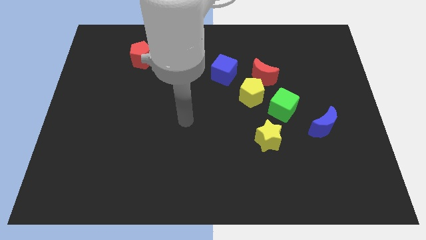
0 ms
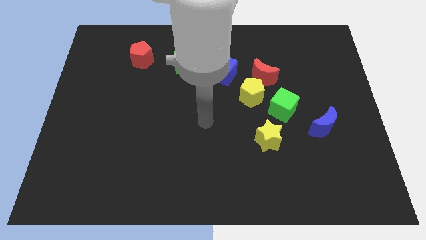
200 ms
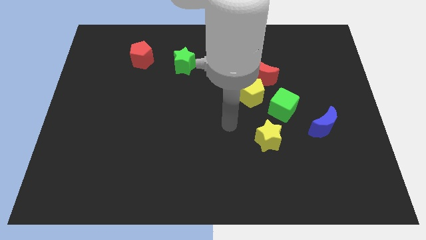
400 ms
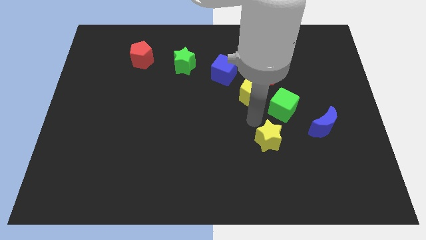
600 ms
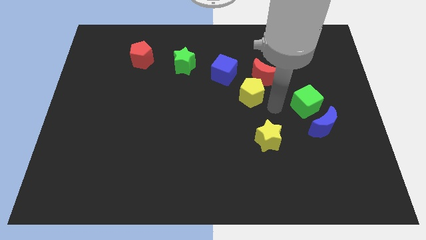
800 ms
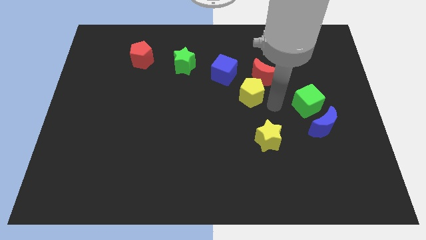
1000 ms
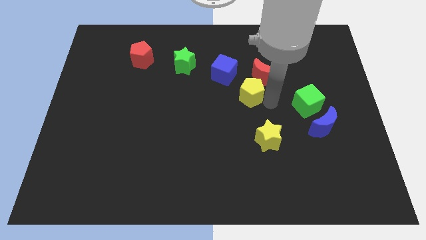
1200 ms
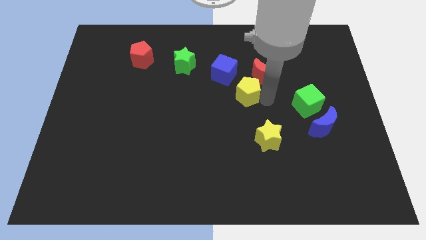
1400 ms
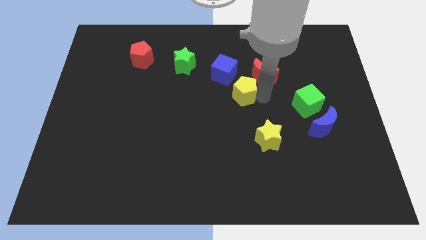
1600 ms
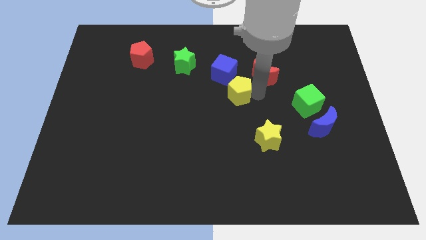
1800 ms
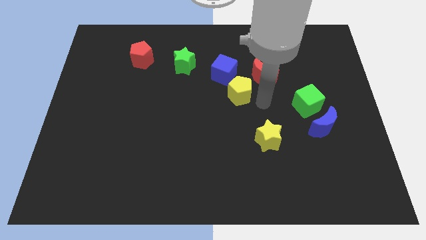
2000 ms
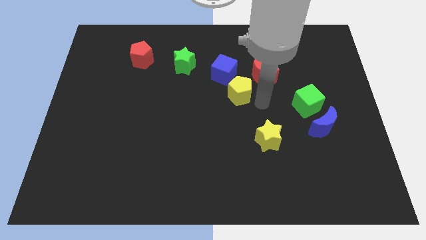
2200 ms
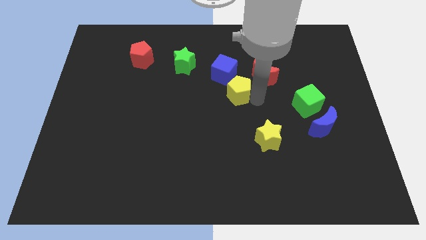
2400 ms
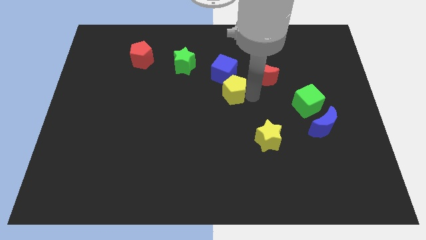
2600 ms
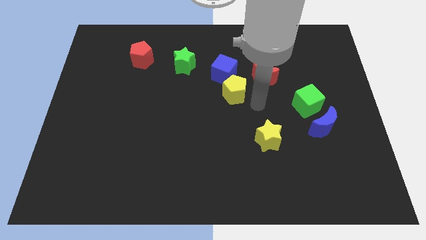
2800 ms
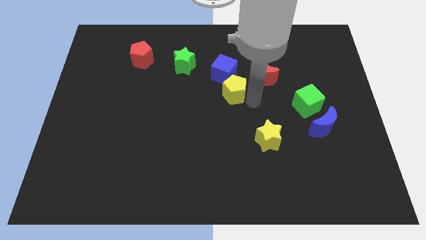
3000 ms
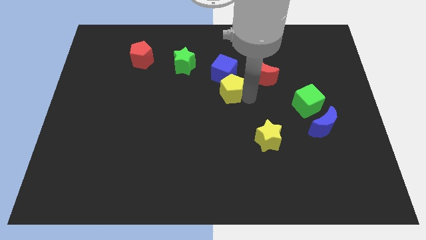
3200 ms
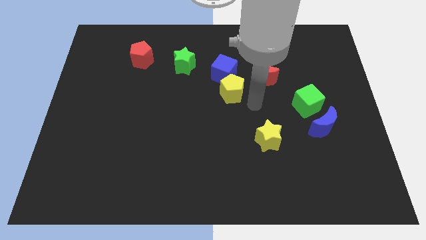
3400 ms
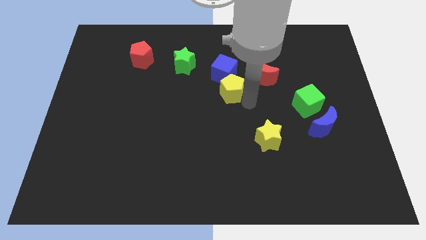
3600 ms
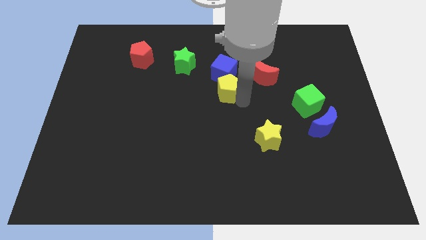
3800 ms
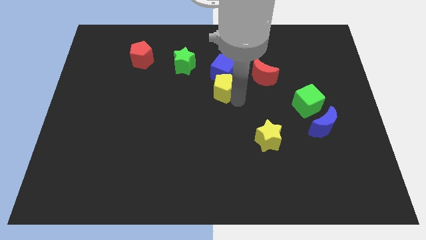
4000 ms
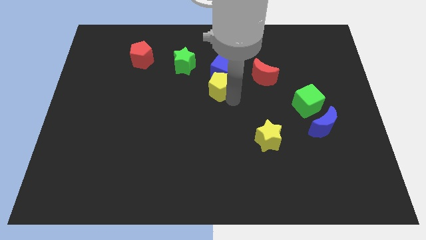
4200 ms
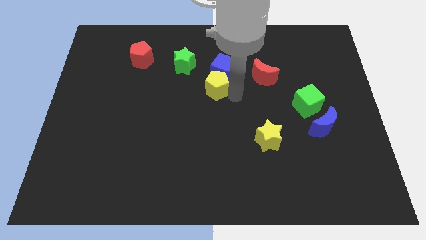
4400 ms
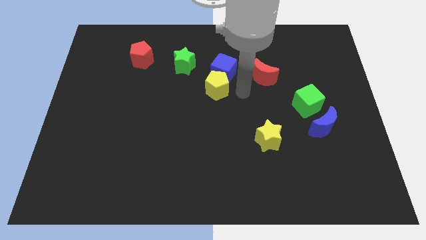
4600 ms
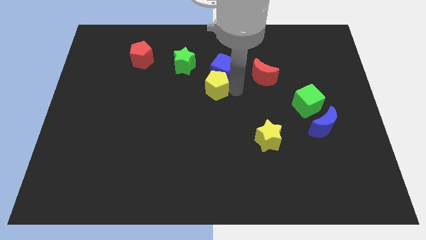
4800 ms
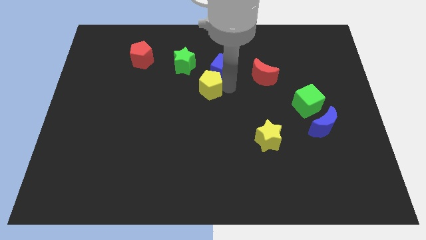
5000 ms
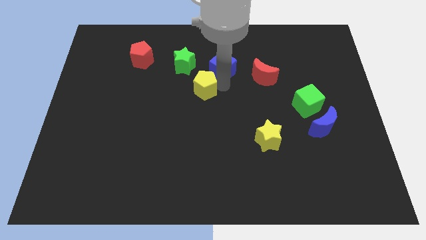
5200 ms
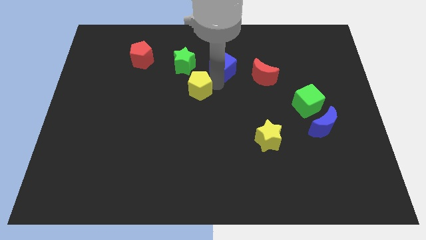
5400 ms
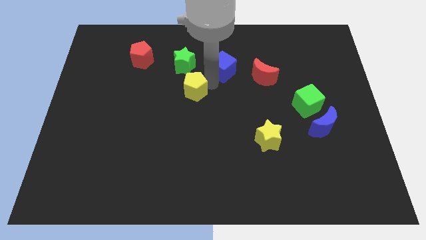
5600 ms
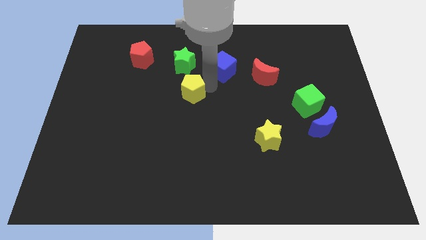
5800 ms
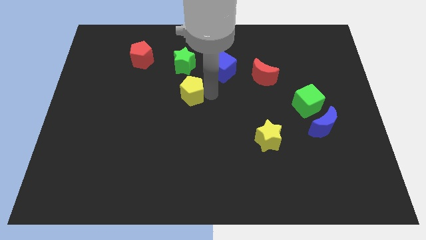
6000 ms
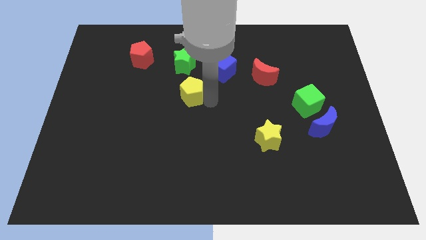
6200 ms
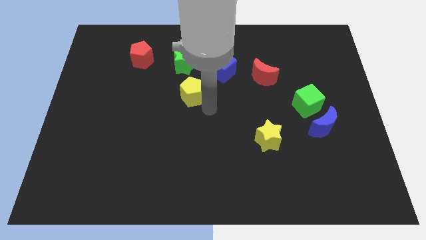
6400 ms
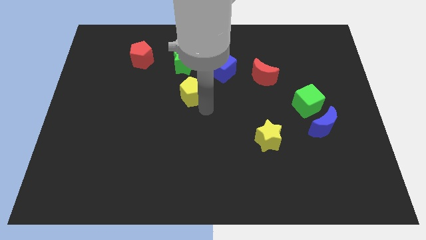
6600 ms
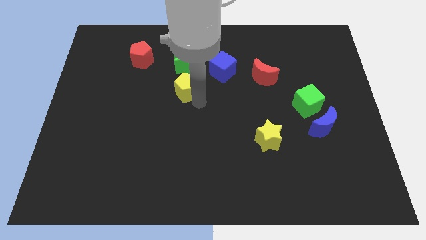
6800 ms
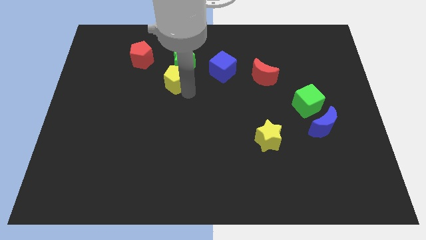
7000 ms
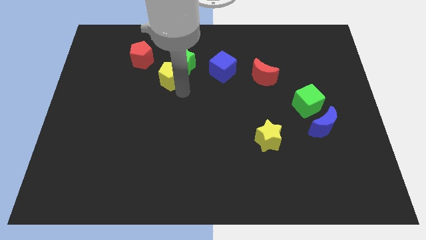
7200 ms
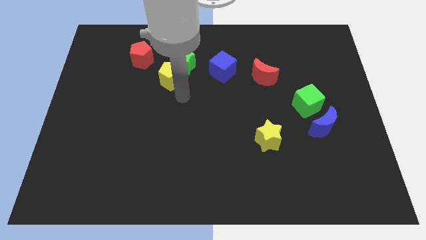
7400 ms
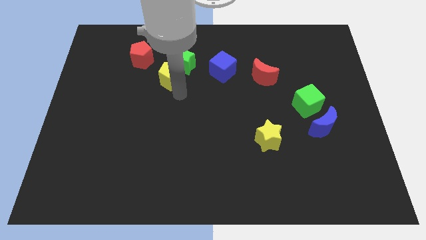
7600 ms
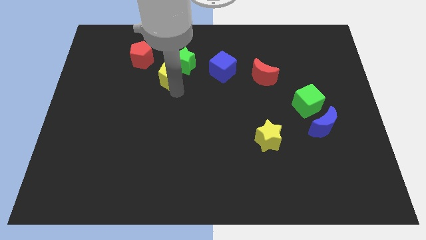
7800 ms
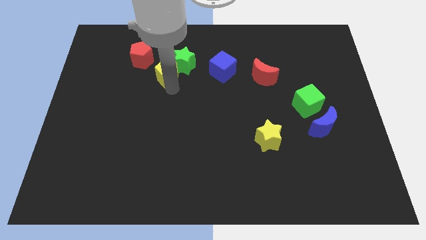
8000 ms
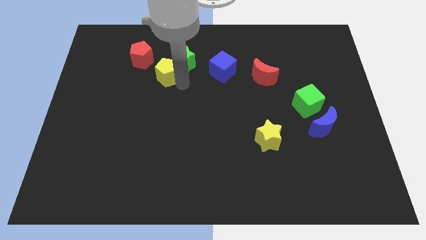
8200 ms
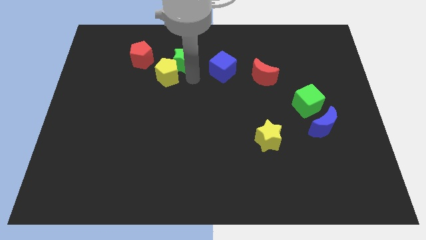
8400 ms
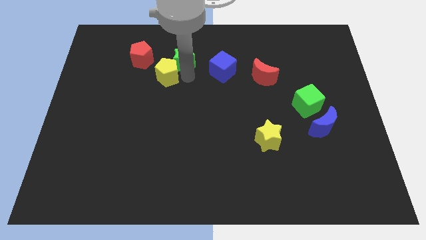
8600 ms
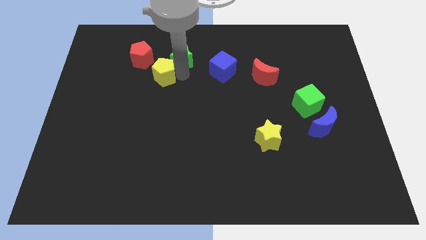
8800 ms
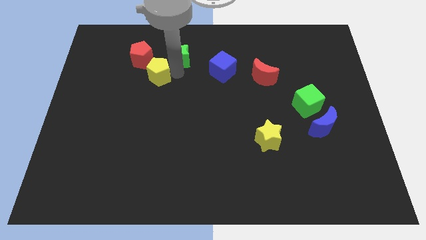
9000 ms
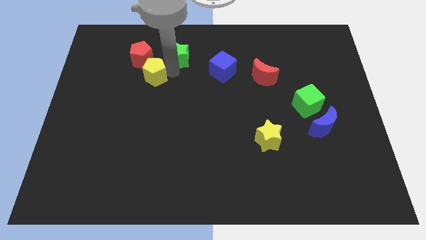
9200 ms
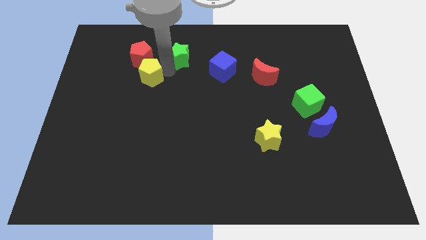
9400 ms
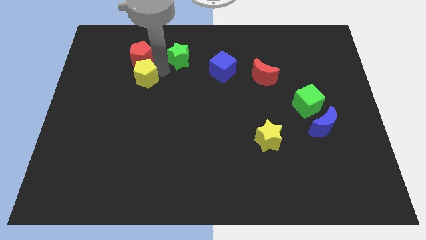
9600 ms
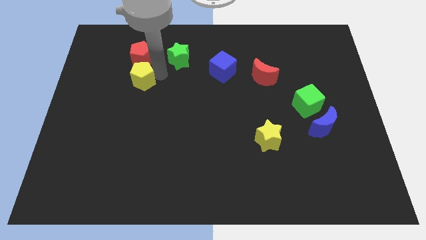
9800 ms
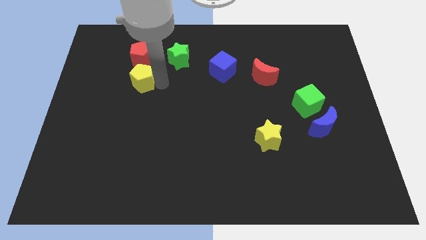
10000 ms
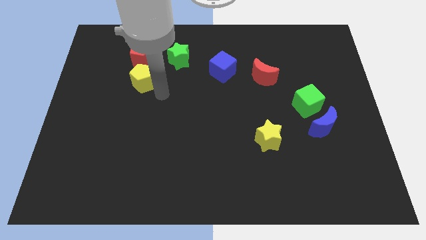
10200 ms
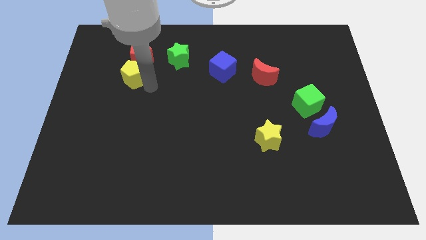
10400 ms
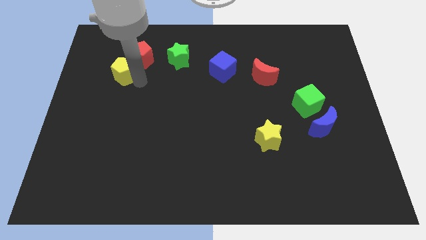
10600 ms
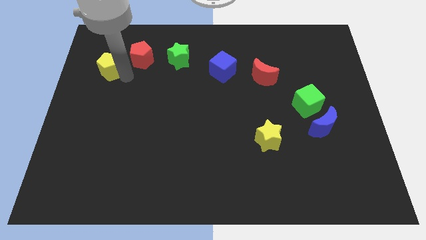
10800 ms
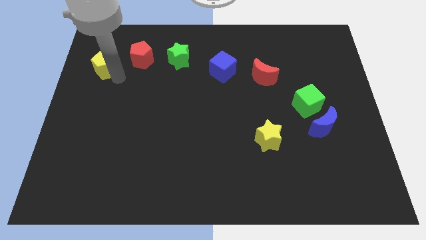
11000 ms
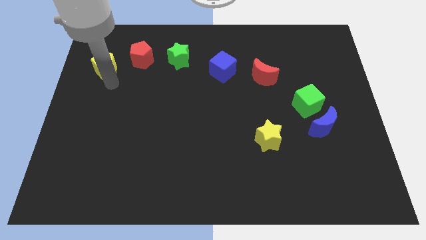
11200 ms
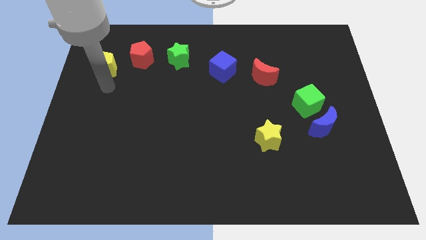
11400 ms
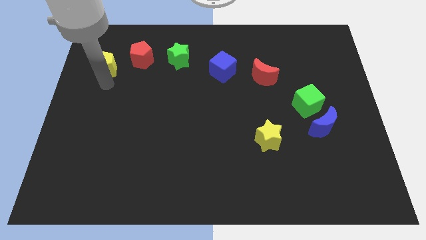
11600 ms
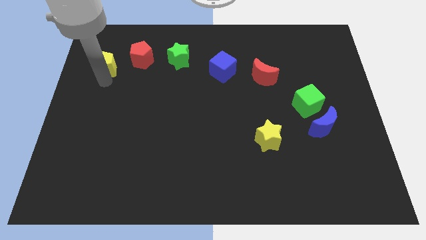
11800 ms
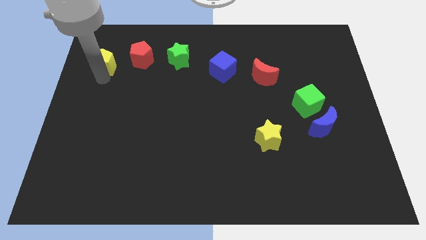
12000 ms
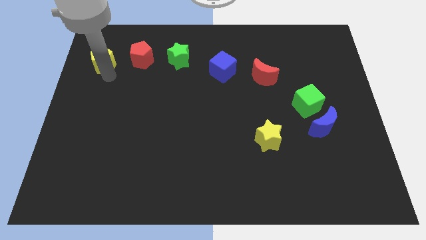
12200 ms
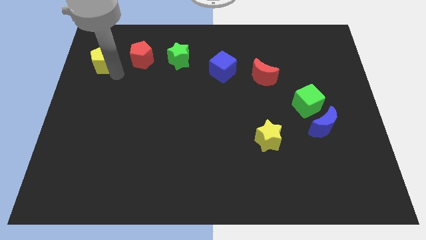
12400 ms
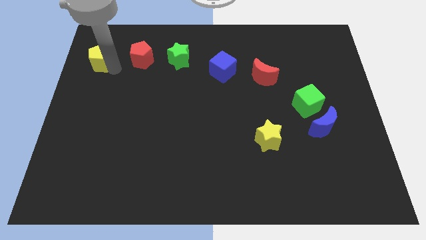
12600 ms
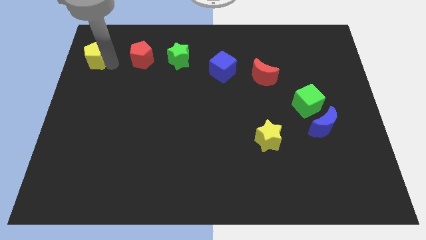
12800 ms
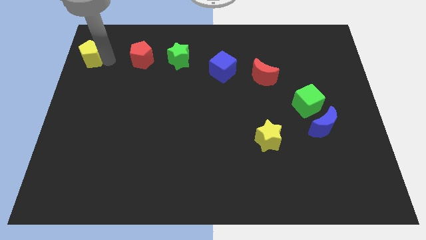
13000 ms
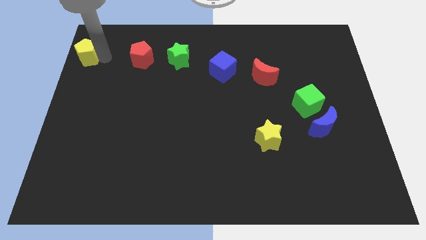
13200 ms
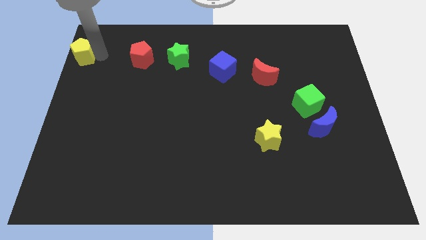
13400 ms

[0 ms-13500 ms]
slide the yellow pentagon to the top left corner
